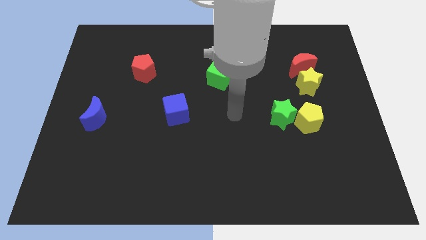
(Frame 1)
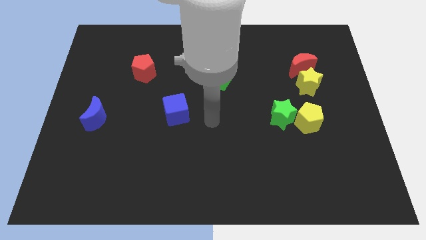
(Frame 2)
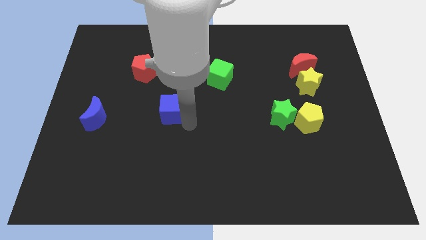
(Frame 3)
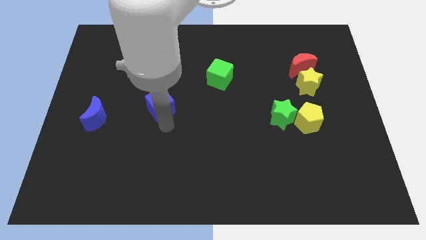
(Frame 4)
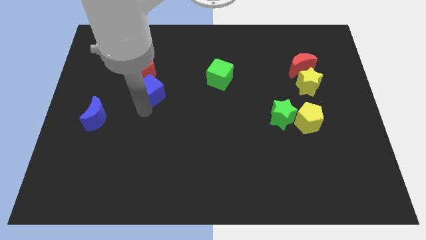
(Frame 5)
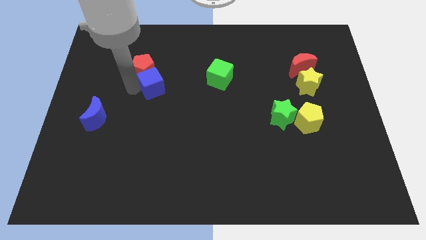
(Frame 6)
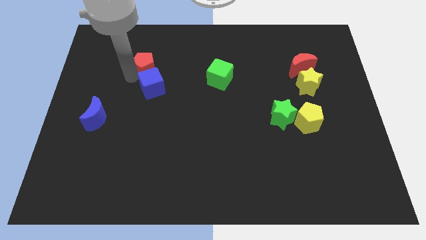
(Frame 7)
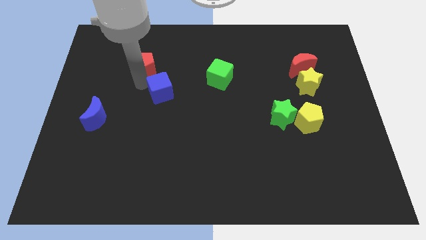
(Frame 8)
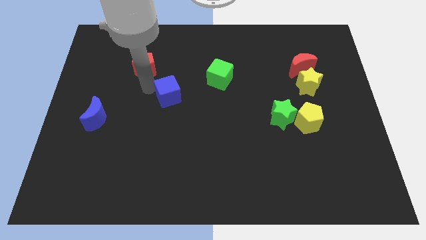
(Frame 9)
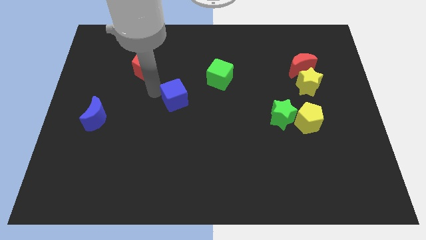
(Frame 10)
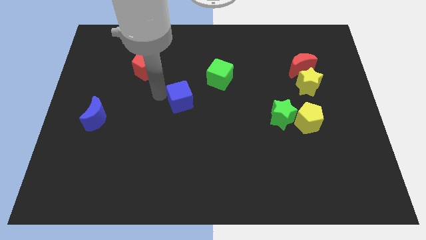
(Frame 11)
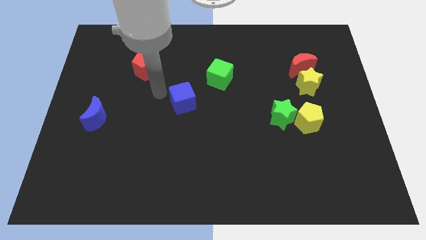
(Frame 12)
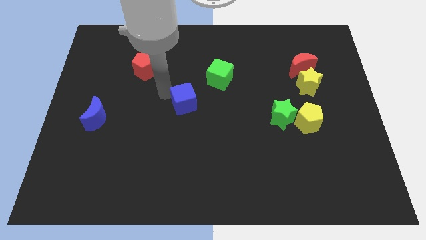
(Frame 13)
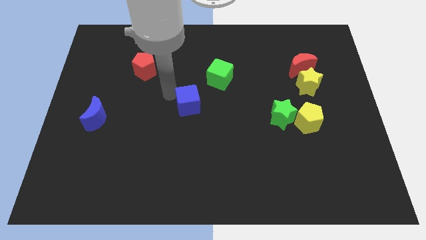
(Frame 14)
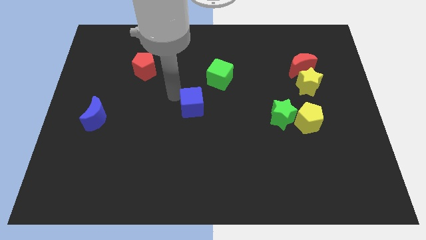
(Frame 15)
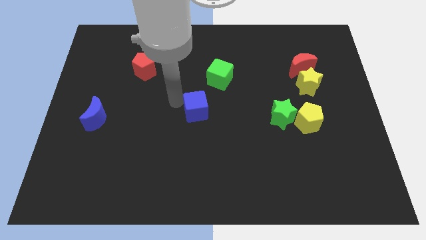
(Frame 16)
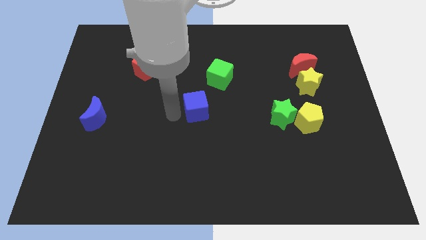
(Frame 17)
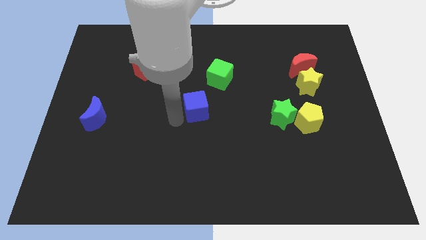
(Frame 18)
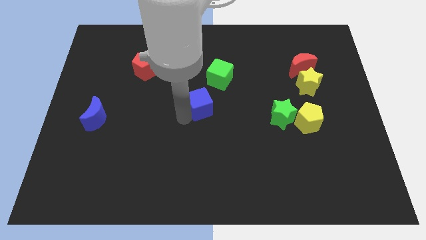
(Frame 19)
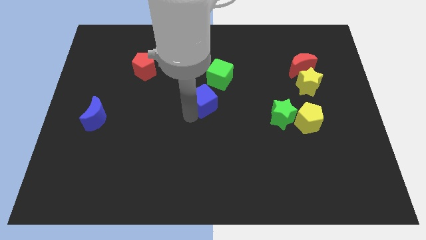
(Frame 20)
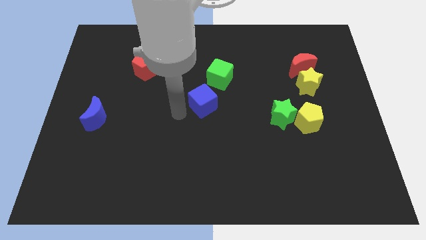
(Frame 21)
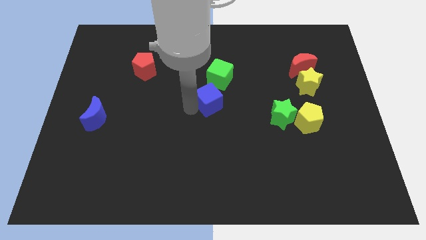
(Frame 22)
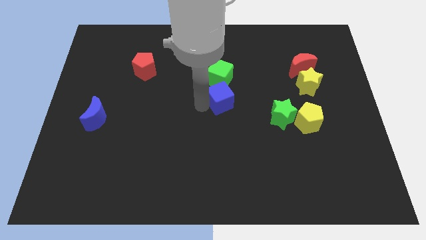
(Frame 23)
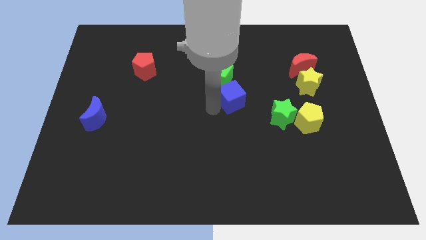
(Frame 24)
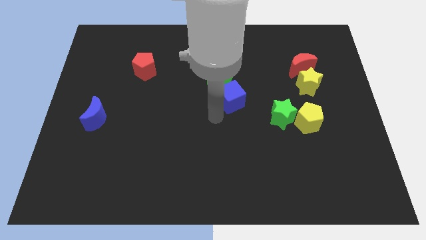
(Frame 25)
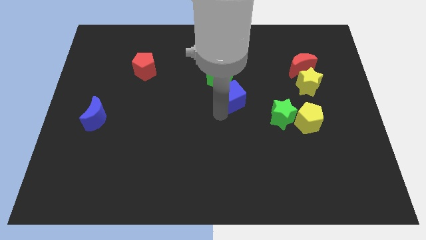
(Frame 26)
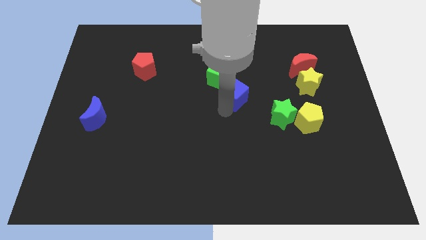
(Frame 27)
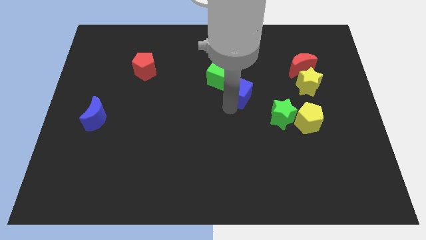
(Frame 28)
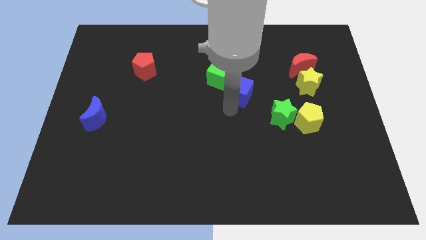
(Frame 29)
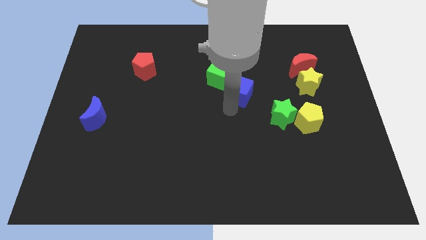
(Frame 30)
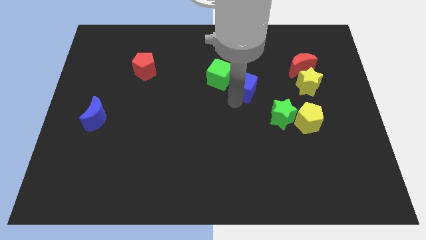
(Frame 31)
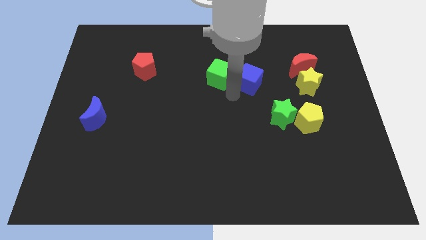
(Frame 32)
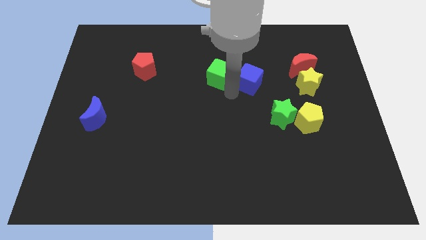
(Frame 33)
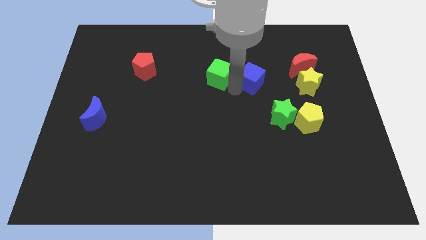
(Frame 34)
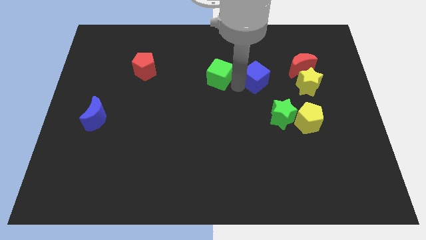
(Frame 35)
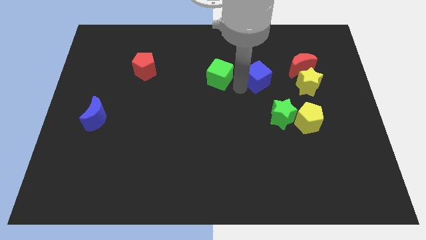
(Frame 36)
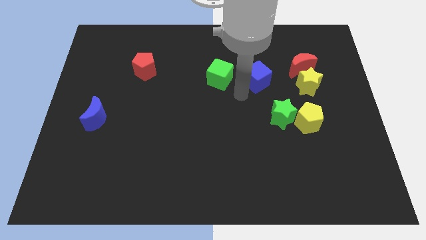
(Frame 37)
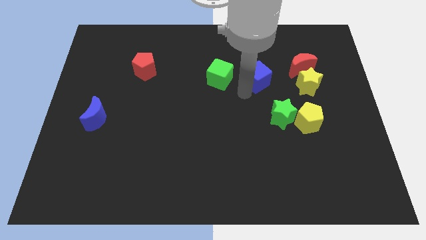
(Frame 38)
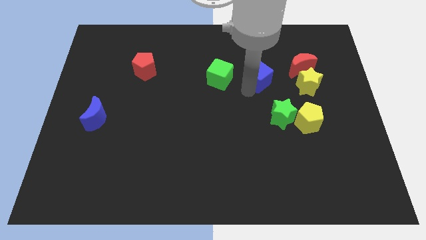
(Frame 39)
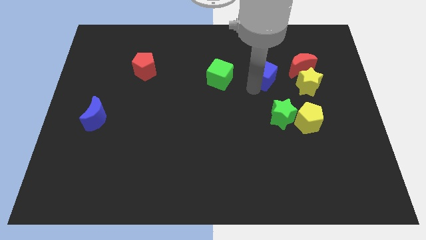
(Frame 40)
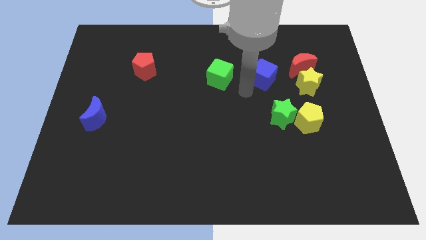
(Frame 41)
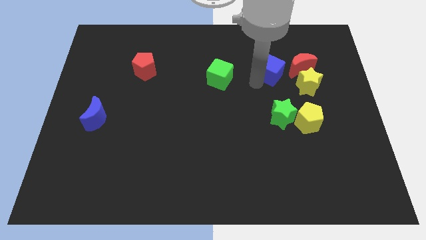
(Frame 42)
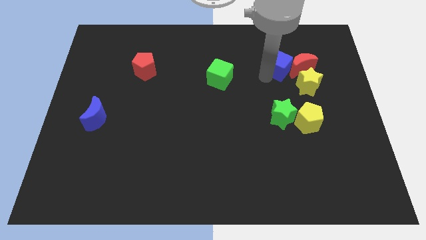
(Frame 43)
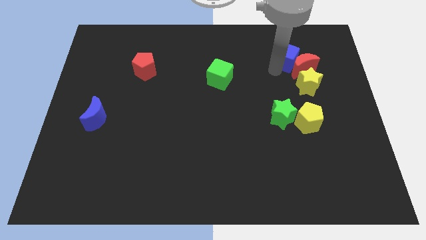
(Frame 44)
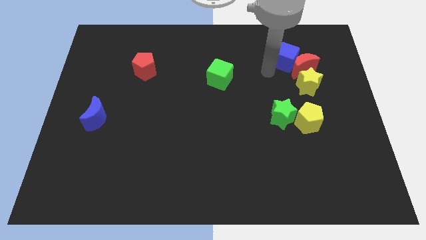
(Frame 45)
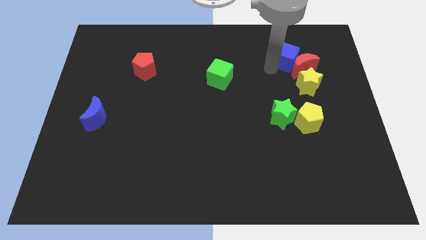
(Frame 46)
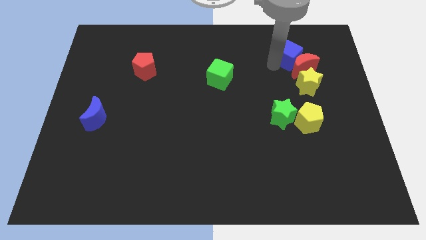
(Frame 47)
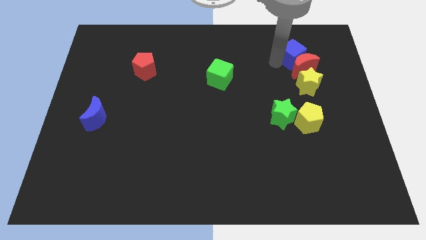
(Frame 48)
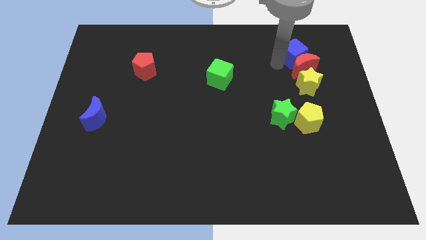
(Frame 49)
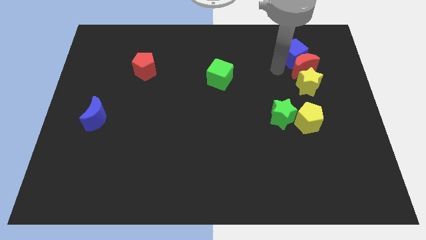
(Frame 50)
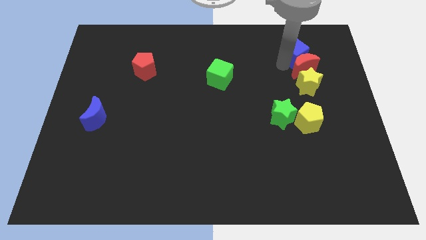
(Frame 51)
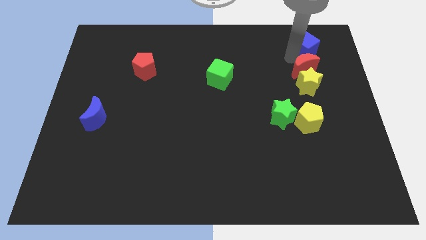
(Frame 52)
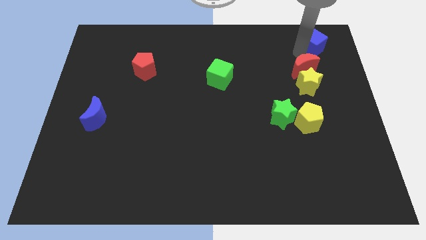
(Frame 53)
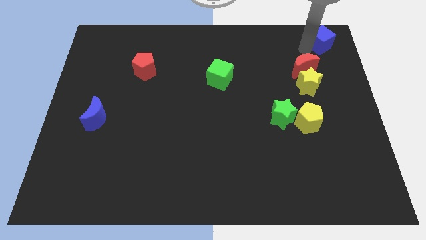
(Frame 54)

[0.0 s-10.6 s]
slide the blue cube to the top right

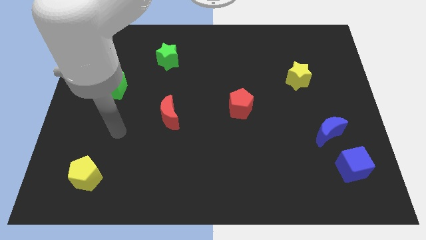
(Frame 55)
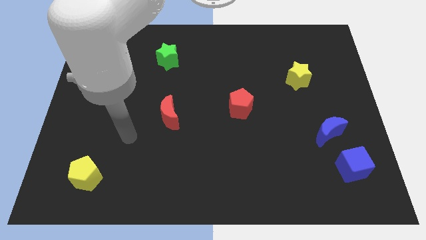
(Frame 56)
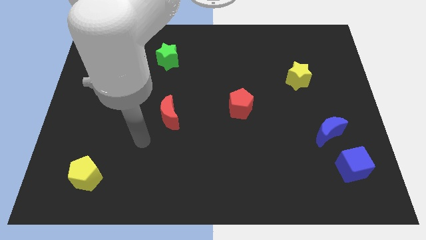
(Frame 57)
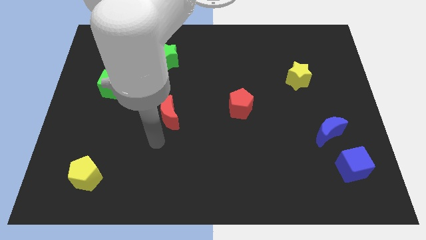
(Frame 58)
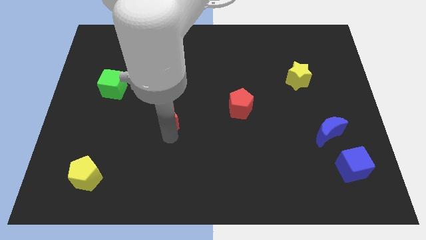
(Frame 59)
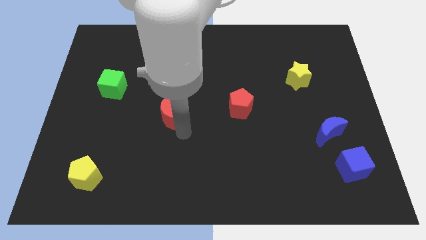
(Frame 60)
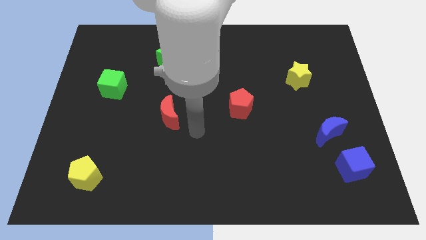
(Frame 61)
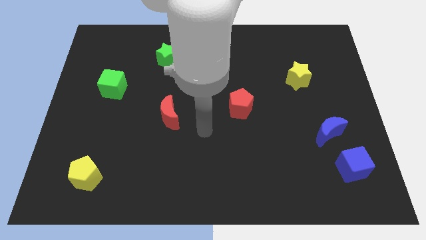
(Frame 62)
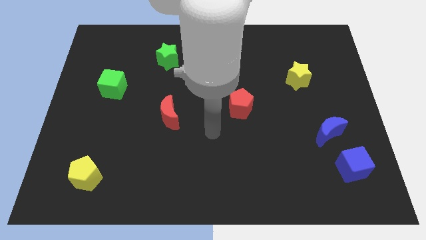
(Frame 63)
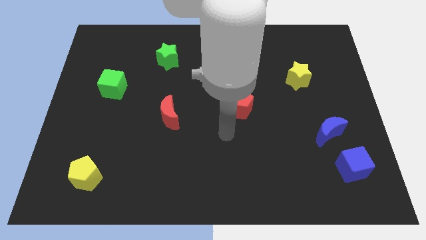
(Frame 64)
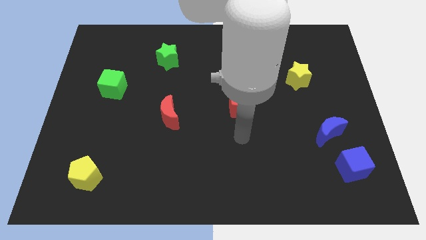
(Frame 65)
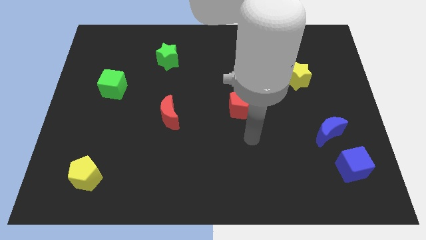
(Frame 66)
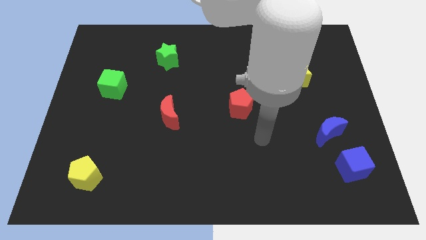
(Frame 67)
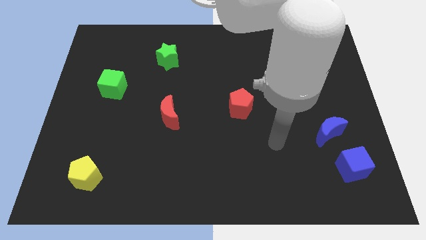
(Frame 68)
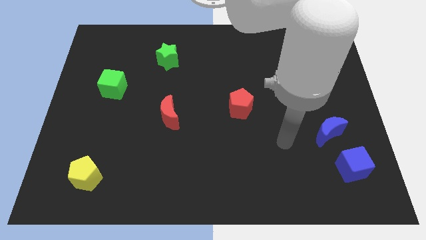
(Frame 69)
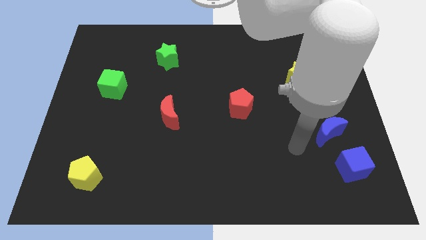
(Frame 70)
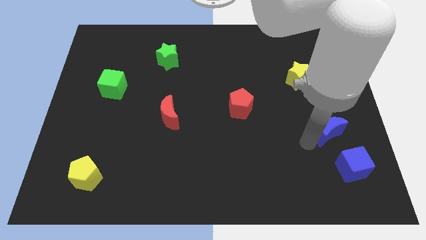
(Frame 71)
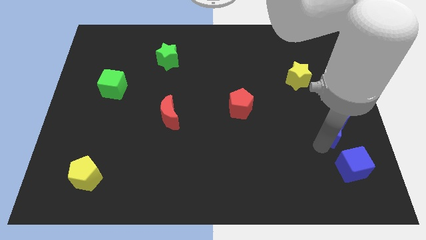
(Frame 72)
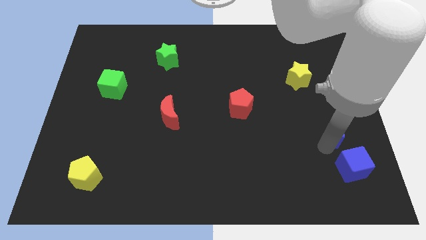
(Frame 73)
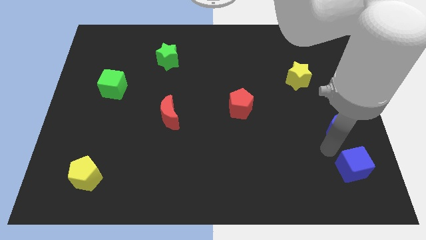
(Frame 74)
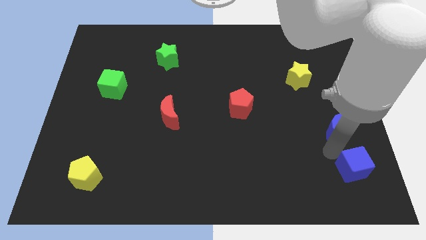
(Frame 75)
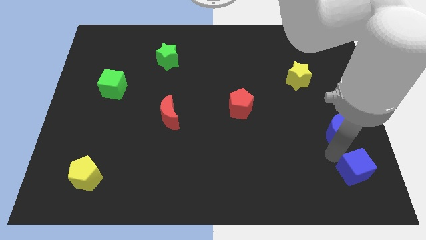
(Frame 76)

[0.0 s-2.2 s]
push the blue cube to the lower right corner
